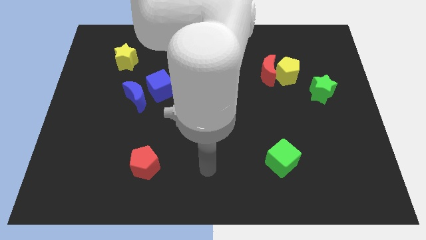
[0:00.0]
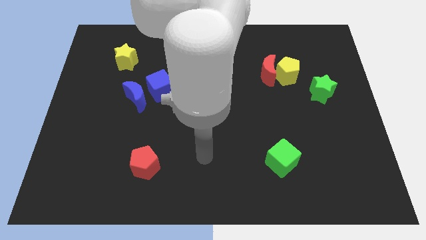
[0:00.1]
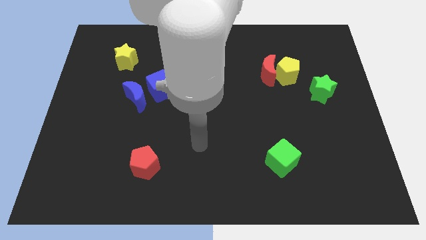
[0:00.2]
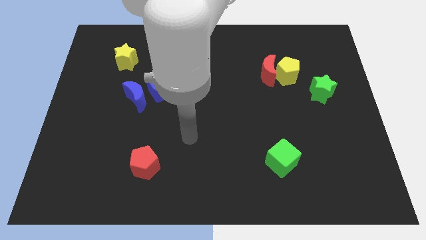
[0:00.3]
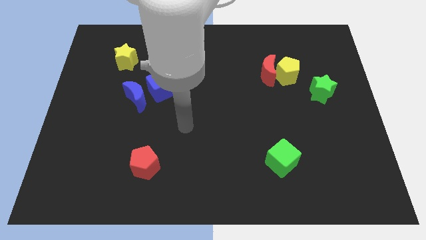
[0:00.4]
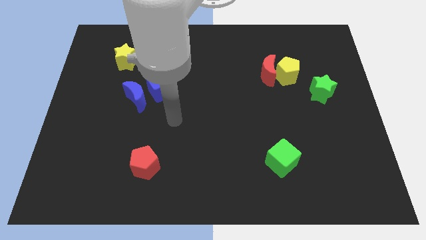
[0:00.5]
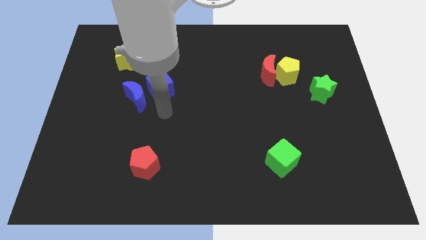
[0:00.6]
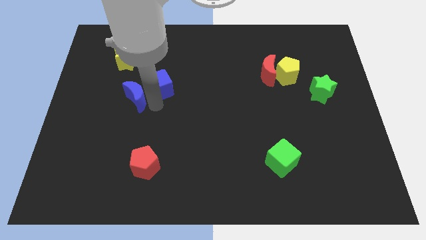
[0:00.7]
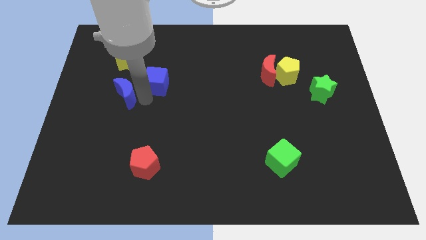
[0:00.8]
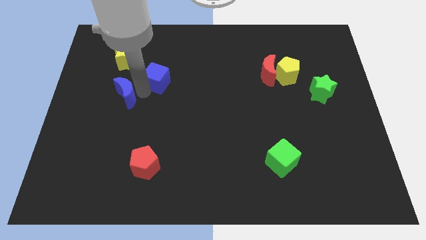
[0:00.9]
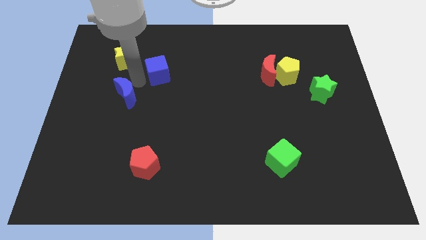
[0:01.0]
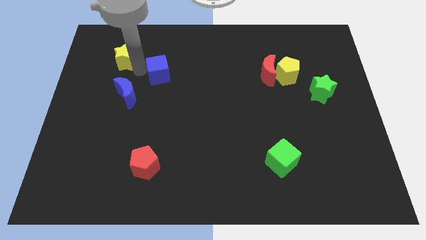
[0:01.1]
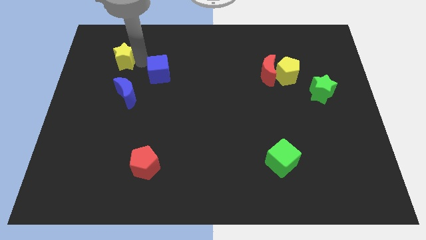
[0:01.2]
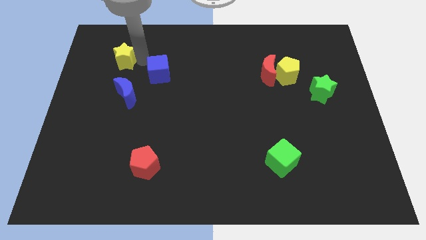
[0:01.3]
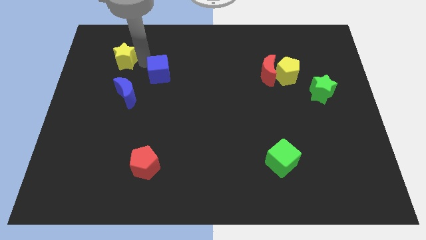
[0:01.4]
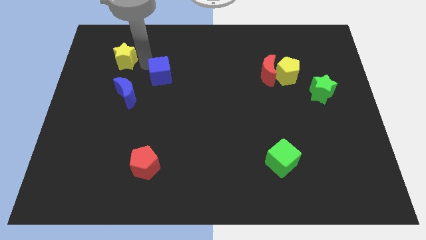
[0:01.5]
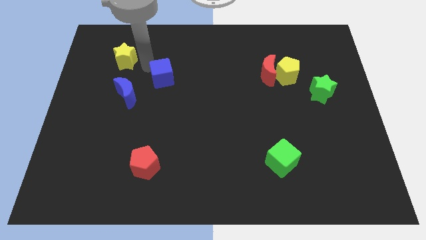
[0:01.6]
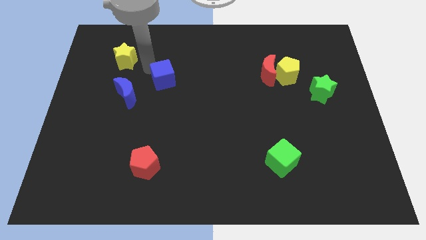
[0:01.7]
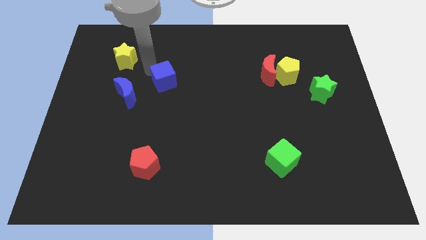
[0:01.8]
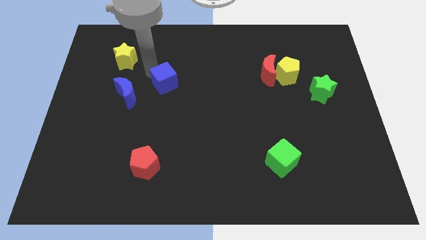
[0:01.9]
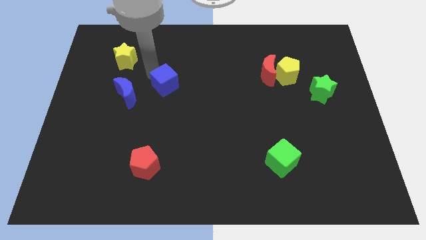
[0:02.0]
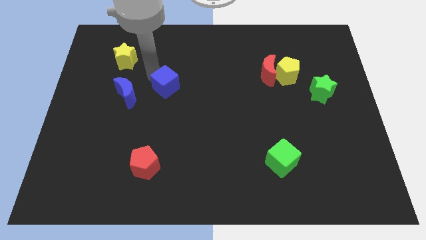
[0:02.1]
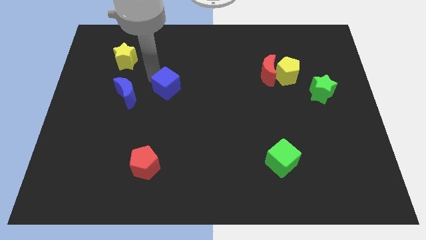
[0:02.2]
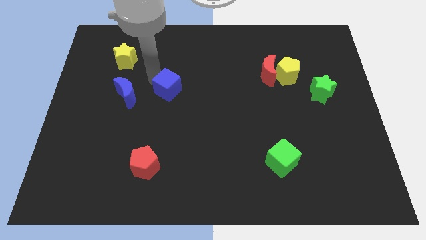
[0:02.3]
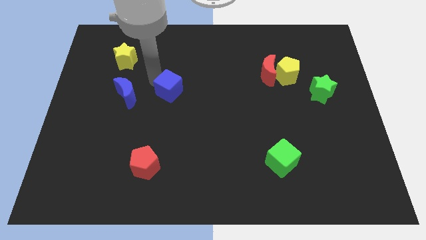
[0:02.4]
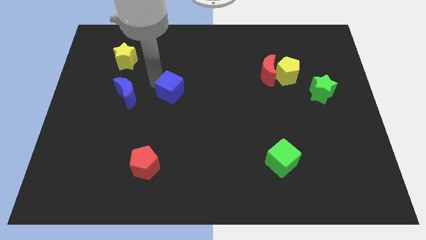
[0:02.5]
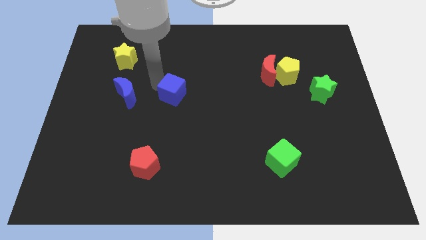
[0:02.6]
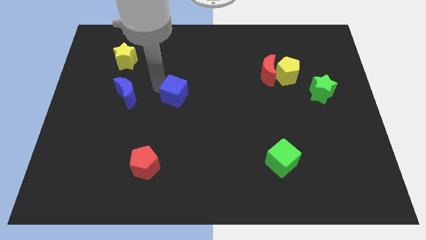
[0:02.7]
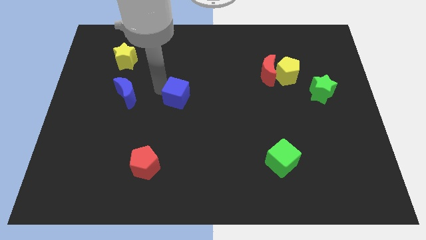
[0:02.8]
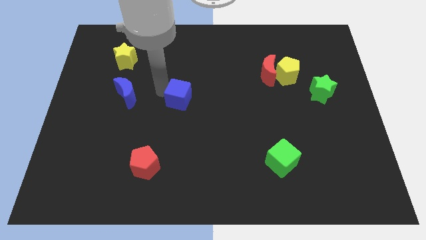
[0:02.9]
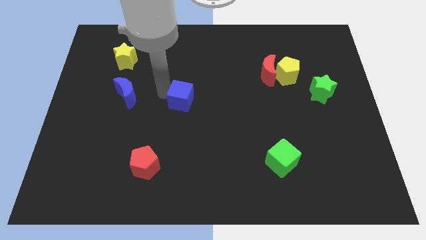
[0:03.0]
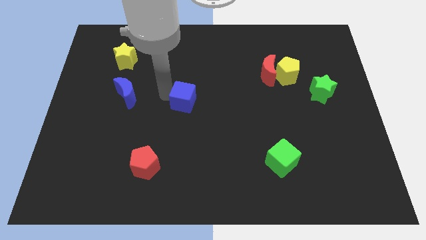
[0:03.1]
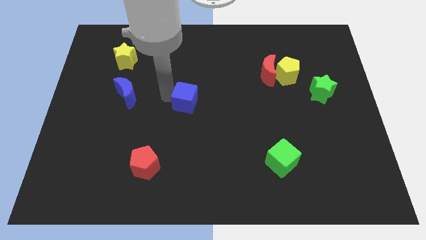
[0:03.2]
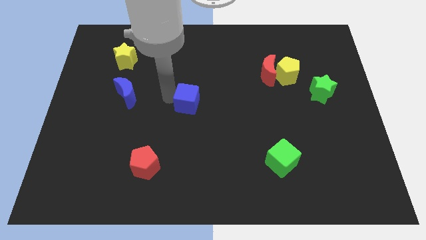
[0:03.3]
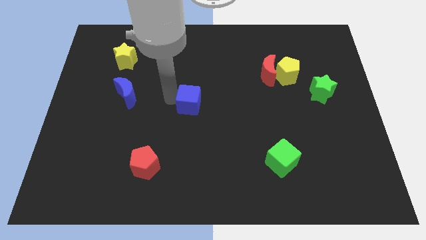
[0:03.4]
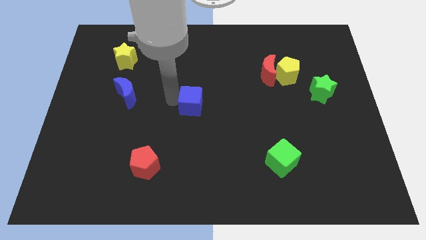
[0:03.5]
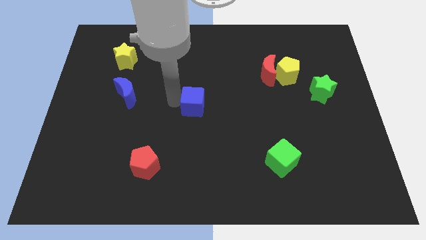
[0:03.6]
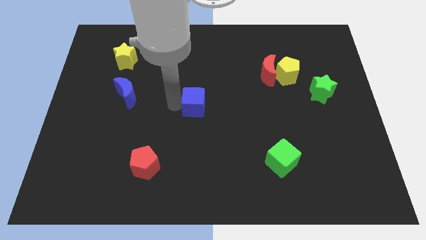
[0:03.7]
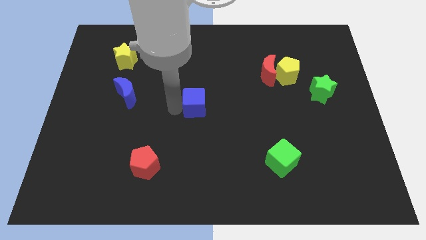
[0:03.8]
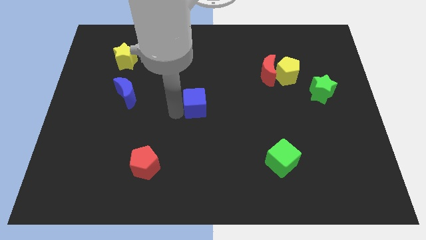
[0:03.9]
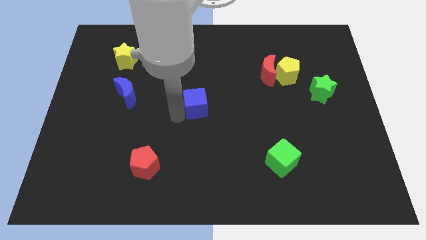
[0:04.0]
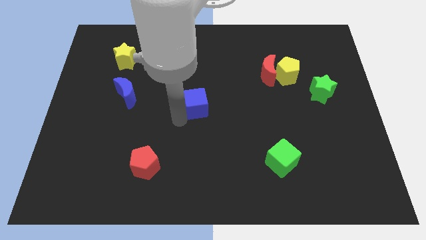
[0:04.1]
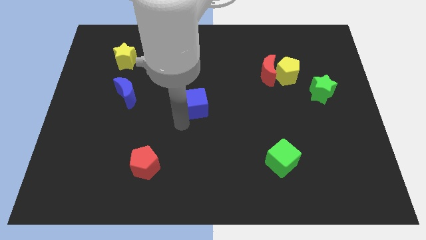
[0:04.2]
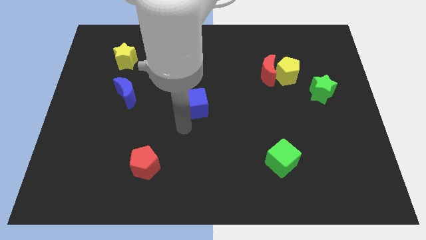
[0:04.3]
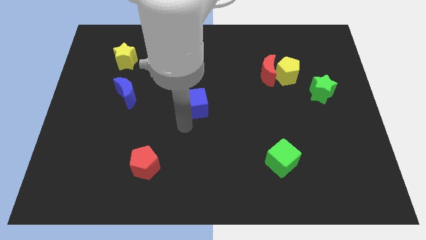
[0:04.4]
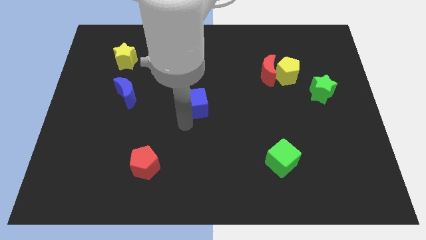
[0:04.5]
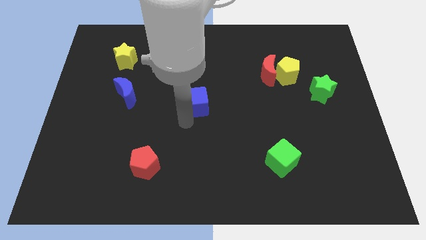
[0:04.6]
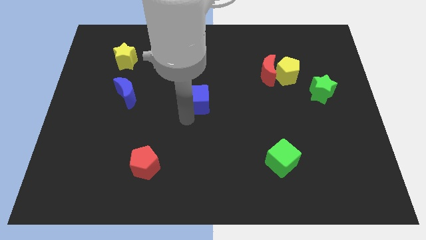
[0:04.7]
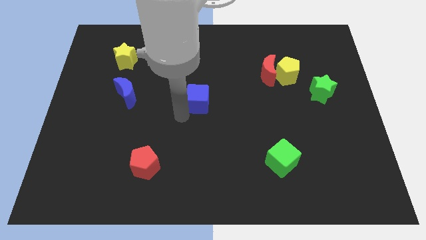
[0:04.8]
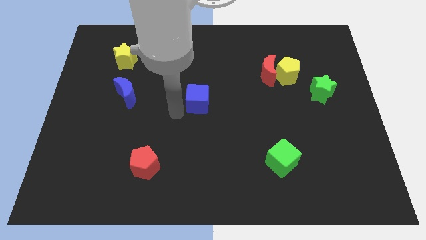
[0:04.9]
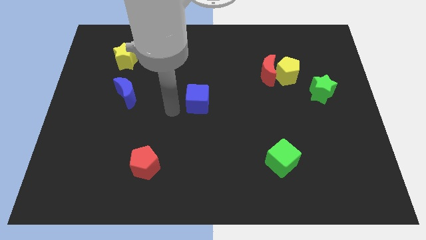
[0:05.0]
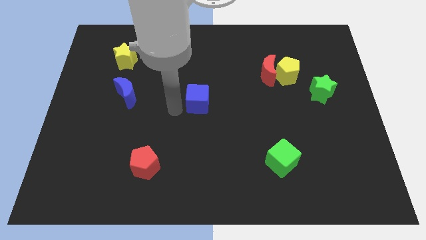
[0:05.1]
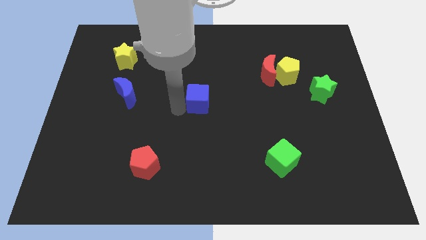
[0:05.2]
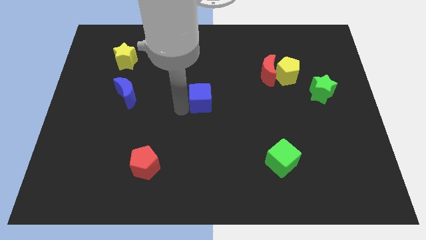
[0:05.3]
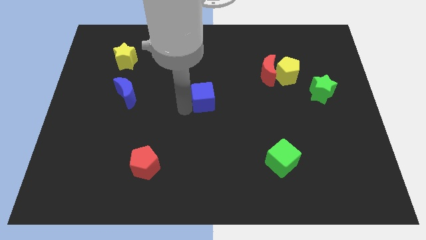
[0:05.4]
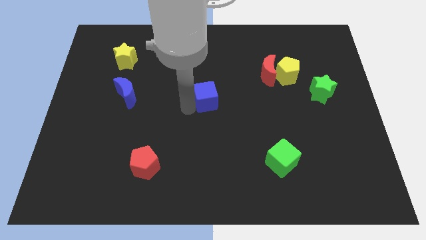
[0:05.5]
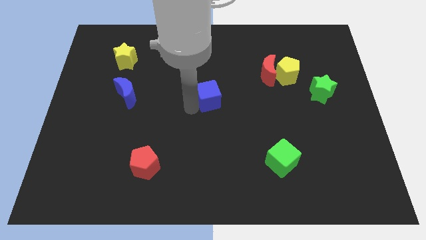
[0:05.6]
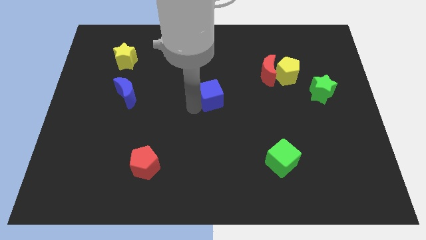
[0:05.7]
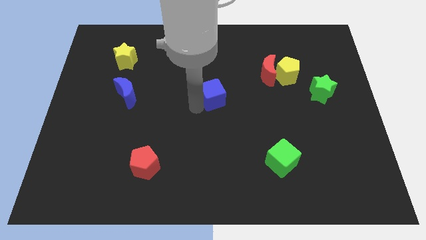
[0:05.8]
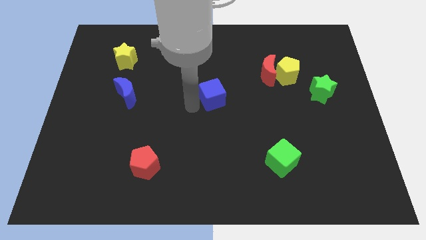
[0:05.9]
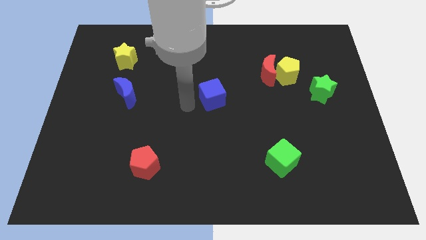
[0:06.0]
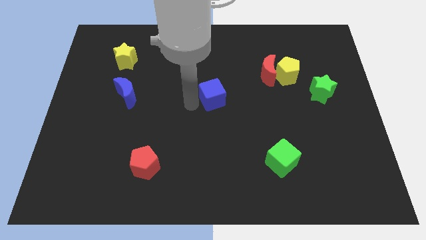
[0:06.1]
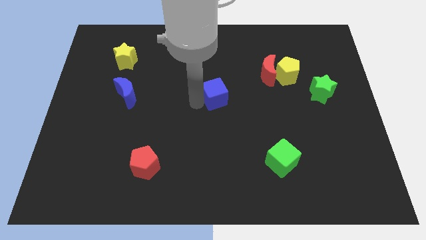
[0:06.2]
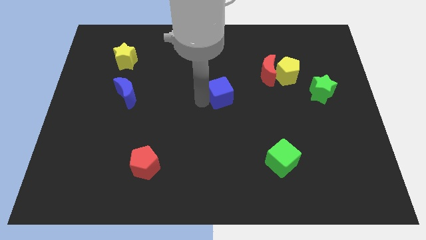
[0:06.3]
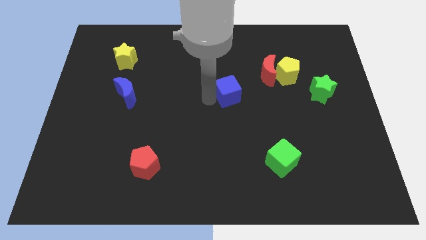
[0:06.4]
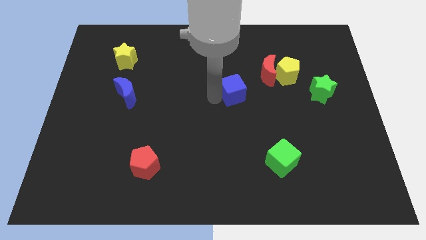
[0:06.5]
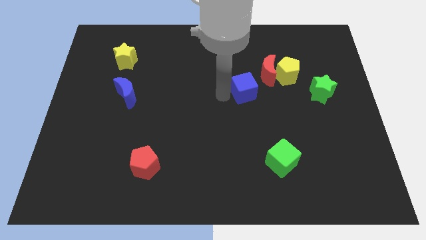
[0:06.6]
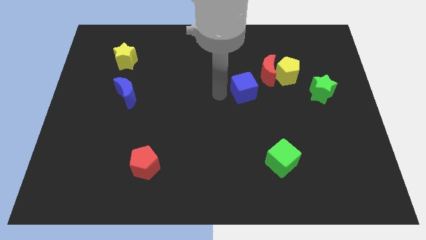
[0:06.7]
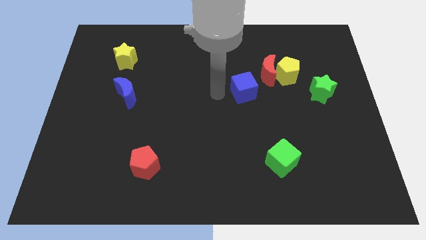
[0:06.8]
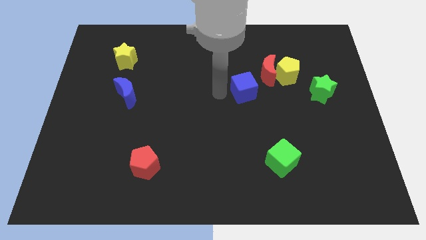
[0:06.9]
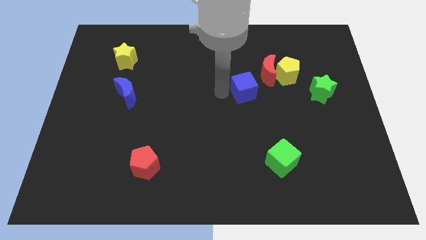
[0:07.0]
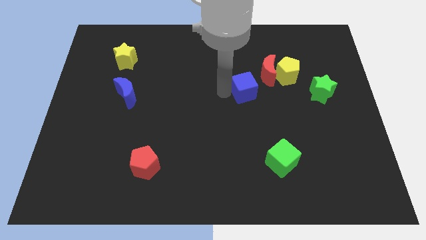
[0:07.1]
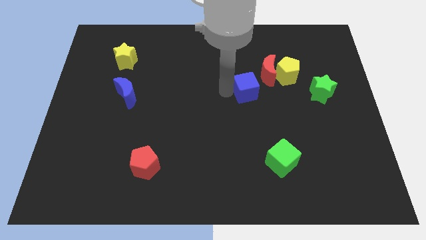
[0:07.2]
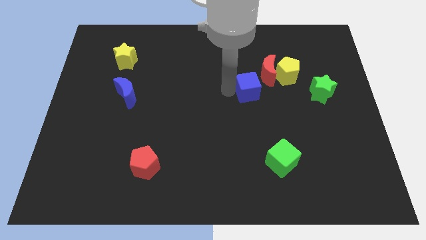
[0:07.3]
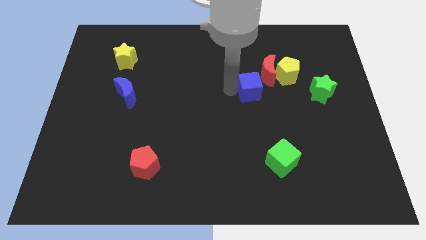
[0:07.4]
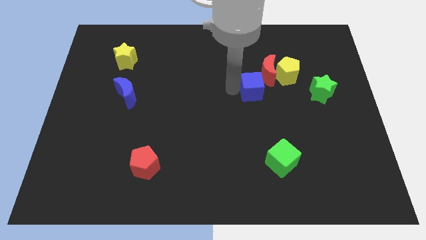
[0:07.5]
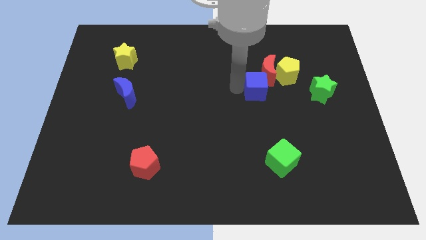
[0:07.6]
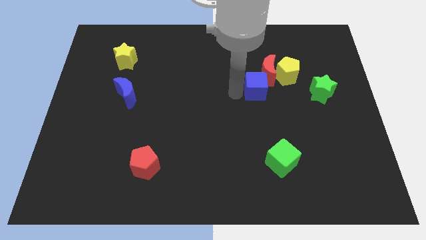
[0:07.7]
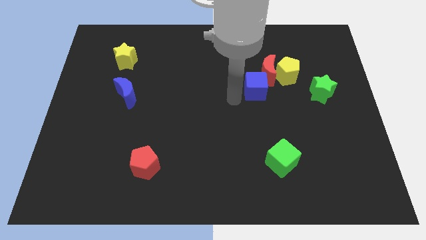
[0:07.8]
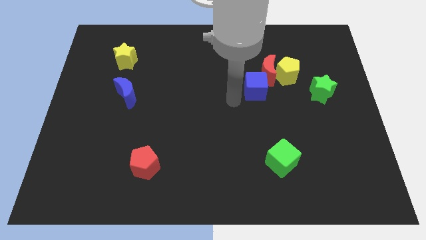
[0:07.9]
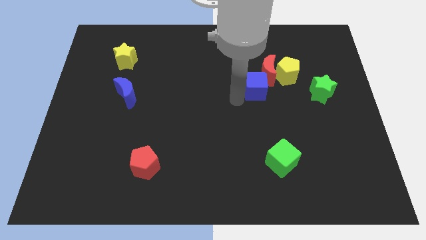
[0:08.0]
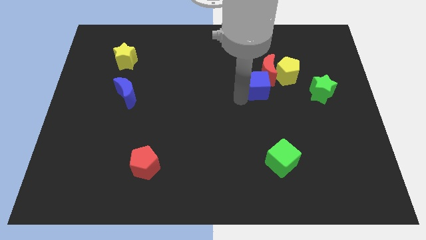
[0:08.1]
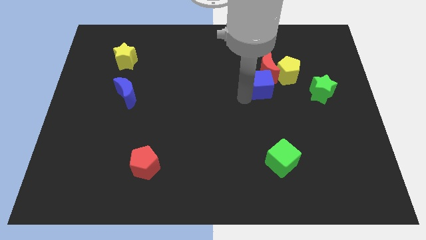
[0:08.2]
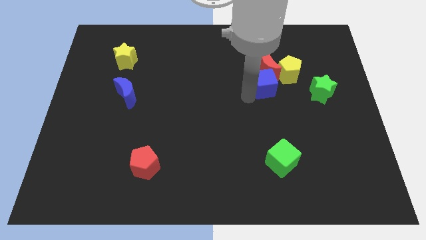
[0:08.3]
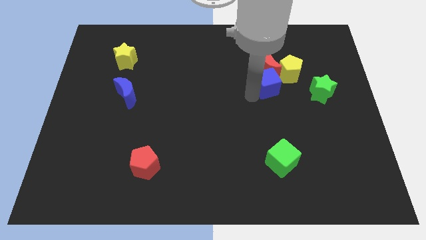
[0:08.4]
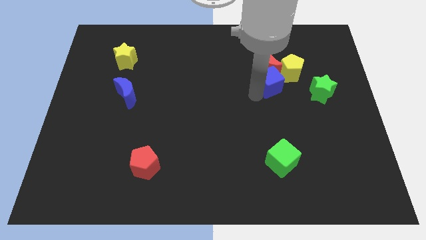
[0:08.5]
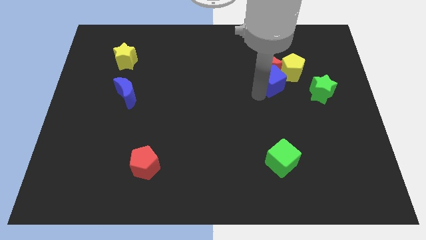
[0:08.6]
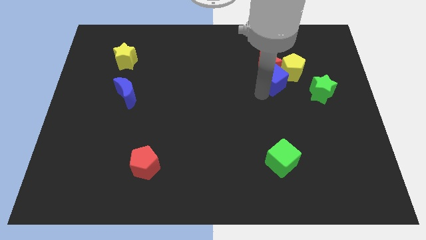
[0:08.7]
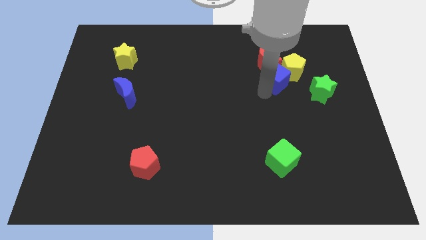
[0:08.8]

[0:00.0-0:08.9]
push the blue cube towards the yellow pentagon
